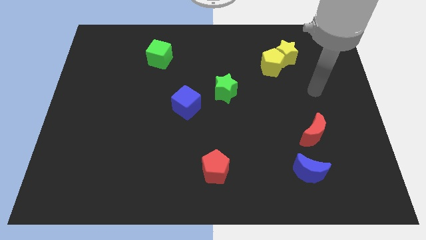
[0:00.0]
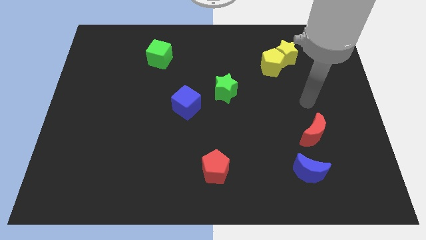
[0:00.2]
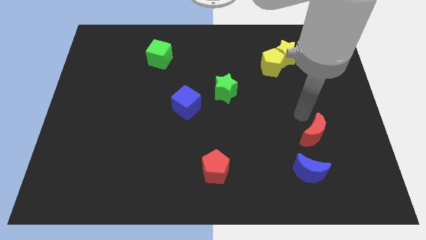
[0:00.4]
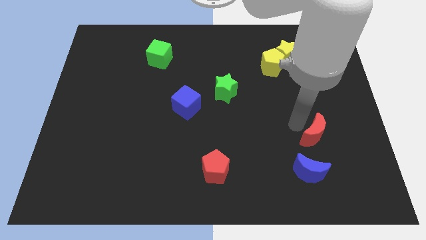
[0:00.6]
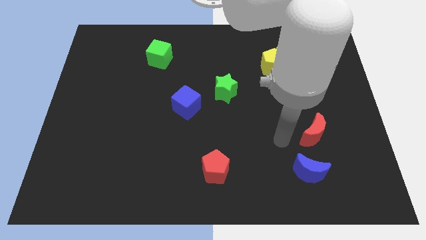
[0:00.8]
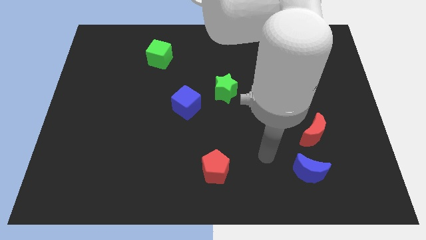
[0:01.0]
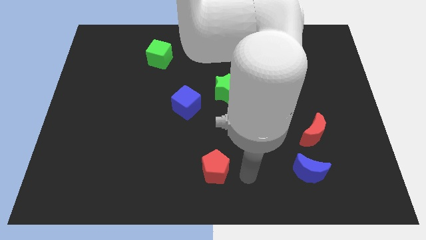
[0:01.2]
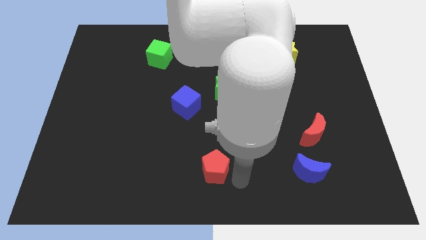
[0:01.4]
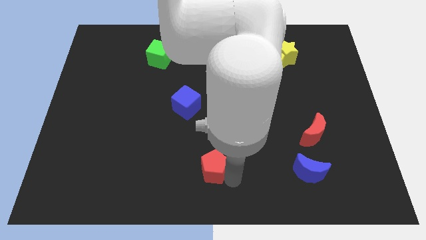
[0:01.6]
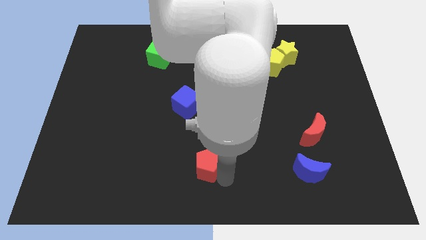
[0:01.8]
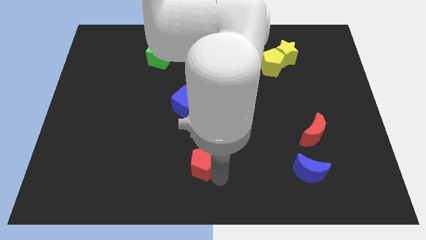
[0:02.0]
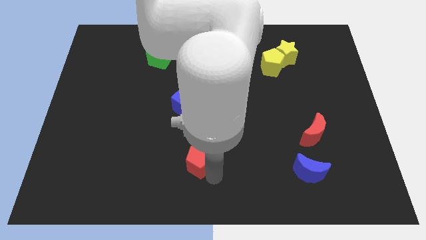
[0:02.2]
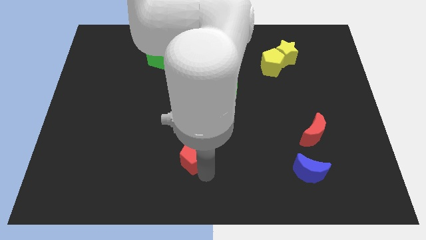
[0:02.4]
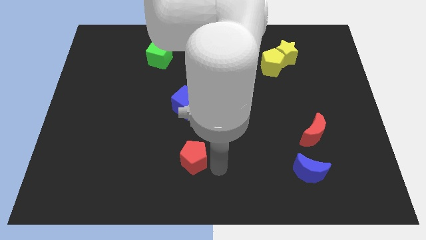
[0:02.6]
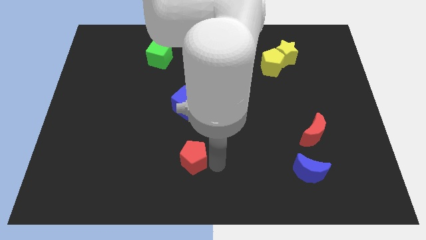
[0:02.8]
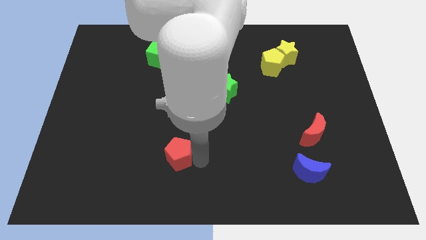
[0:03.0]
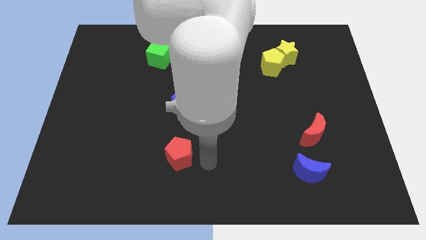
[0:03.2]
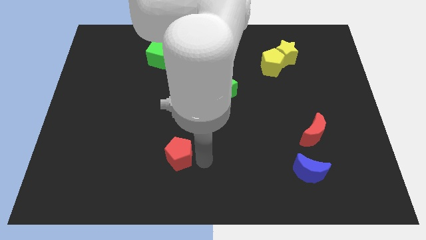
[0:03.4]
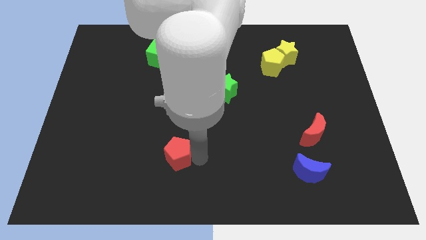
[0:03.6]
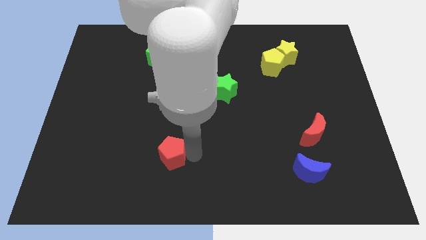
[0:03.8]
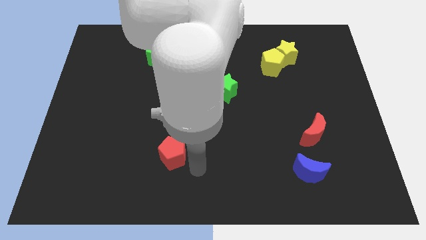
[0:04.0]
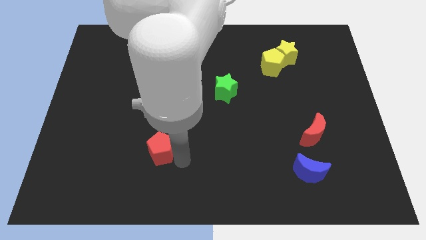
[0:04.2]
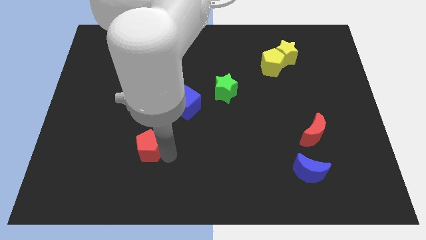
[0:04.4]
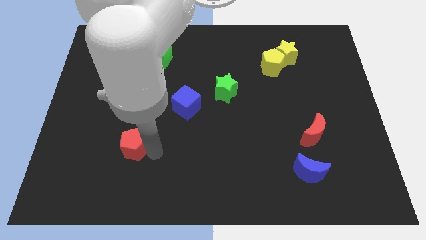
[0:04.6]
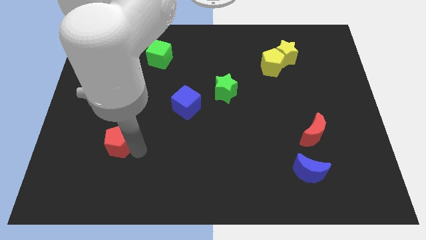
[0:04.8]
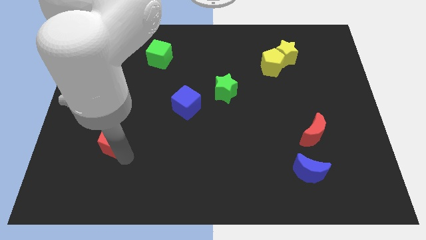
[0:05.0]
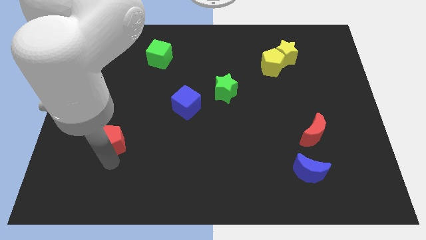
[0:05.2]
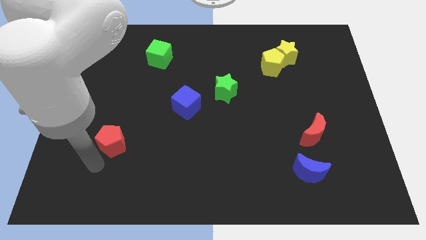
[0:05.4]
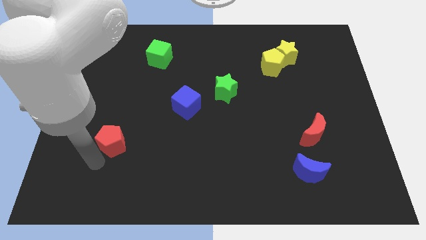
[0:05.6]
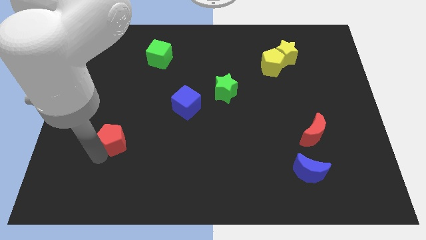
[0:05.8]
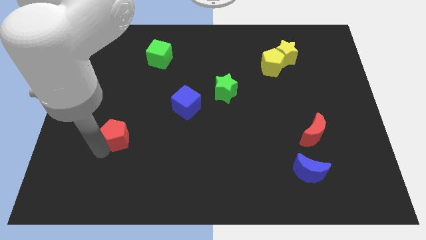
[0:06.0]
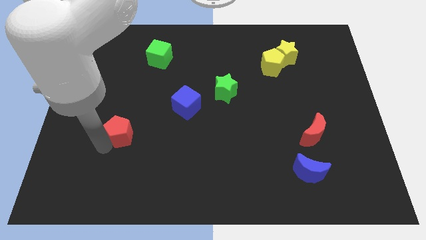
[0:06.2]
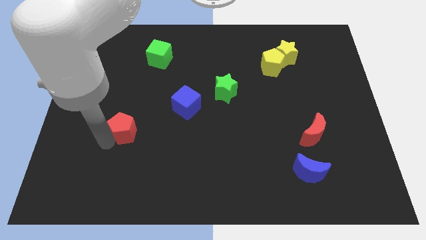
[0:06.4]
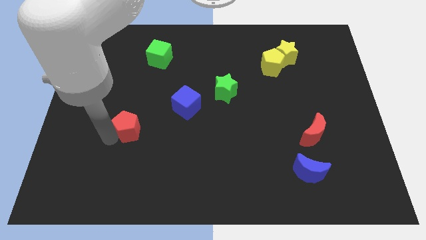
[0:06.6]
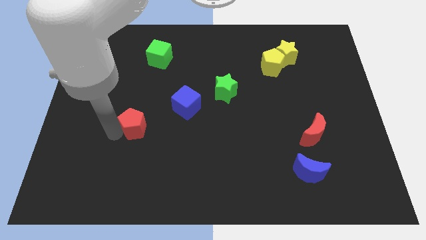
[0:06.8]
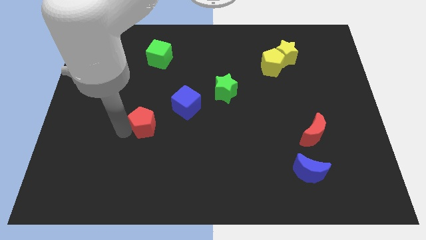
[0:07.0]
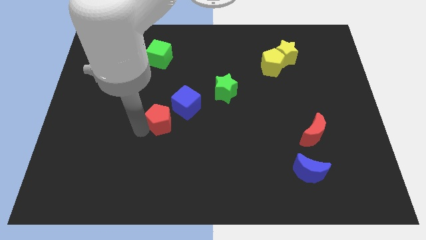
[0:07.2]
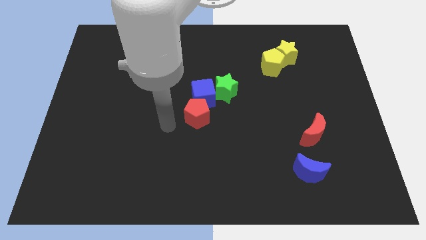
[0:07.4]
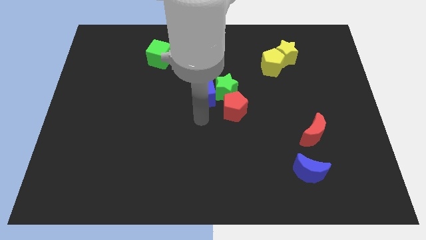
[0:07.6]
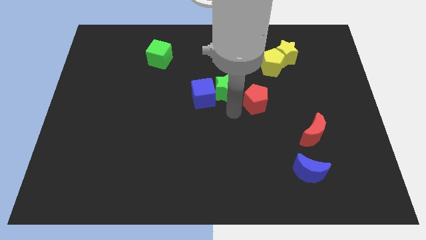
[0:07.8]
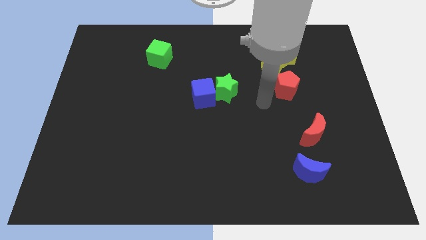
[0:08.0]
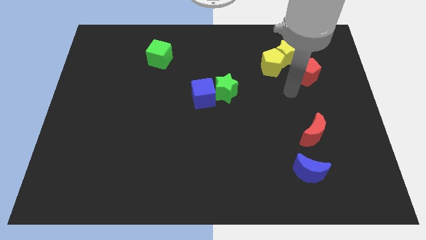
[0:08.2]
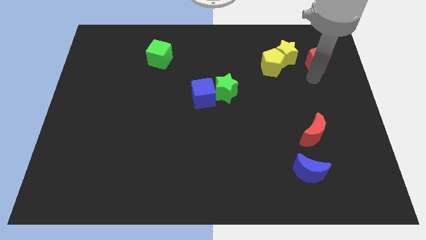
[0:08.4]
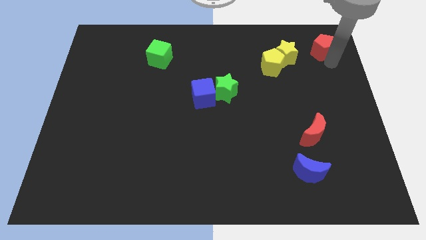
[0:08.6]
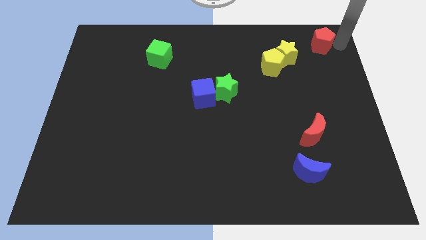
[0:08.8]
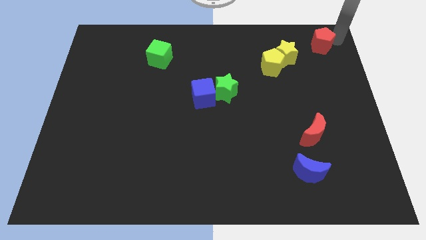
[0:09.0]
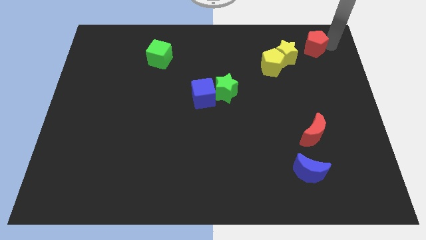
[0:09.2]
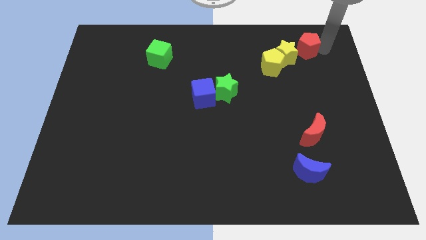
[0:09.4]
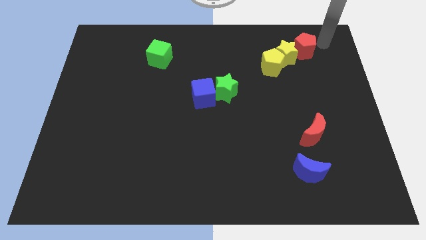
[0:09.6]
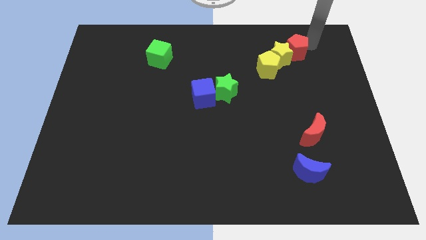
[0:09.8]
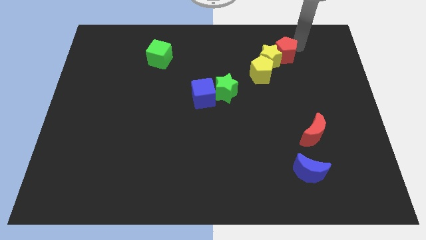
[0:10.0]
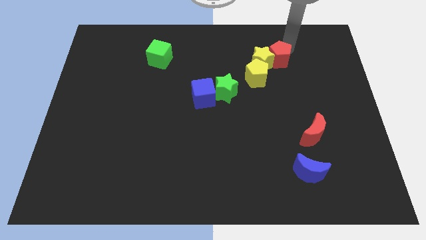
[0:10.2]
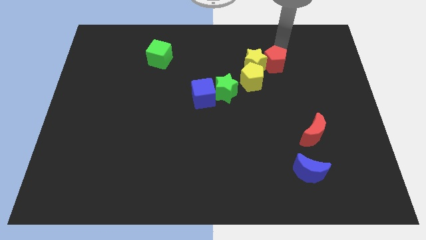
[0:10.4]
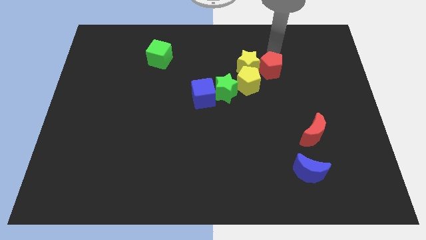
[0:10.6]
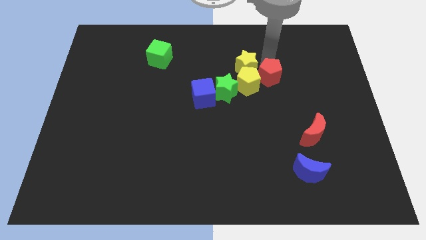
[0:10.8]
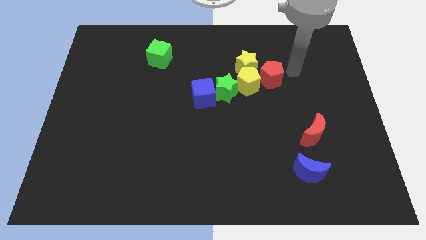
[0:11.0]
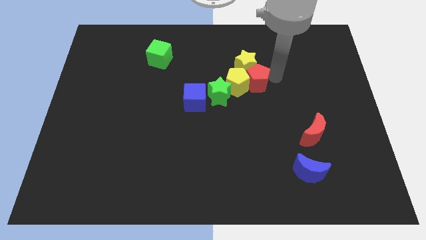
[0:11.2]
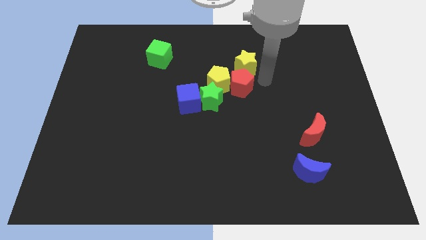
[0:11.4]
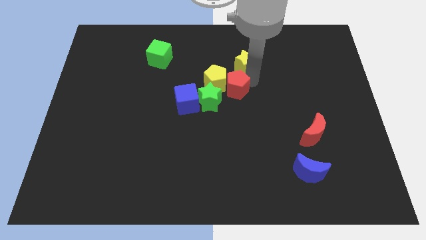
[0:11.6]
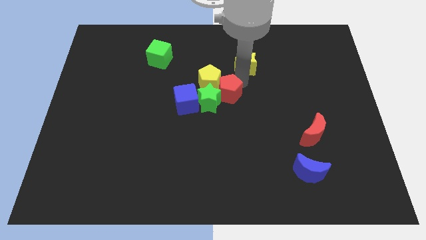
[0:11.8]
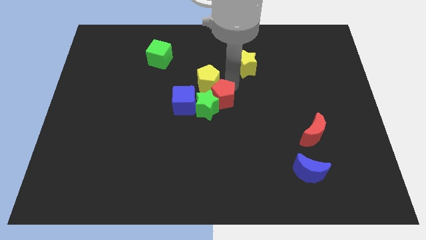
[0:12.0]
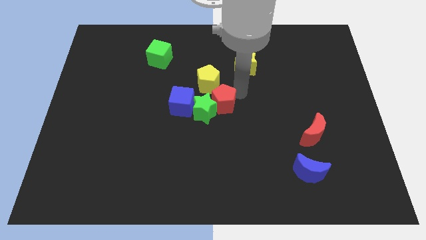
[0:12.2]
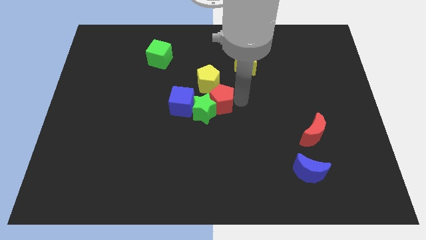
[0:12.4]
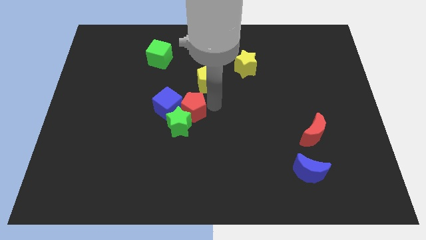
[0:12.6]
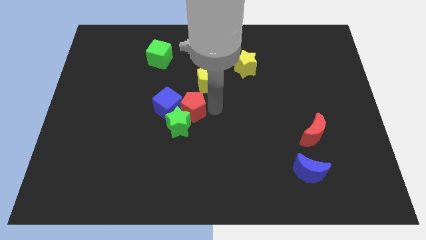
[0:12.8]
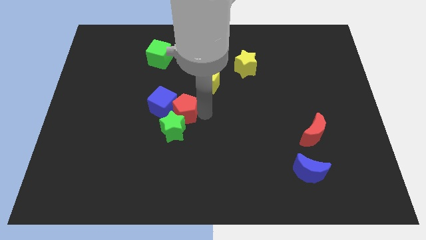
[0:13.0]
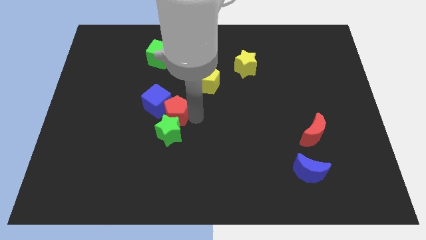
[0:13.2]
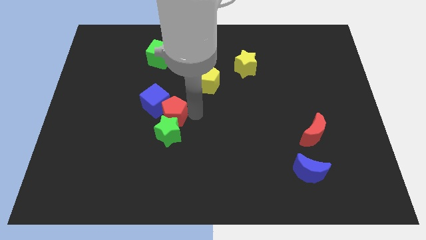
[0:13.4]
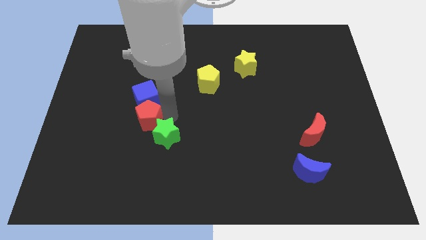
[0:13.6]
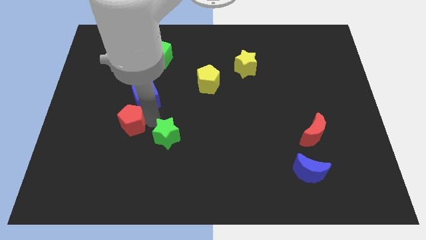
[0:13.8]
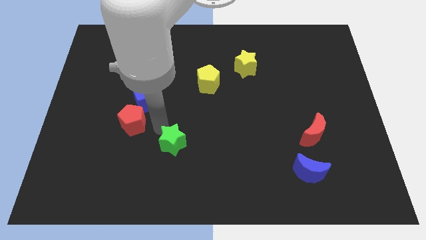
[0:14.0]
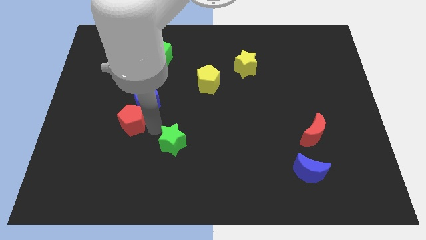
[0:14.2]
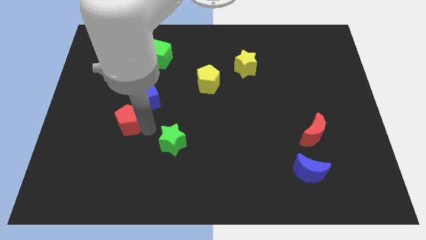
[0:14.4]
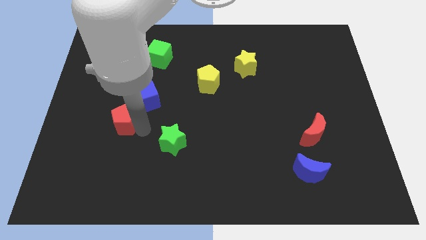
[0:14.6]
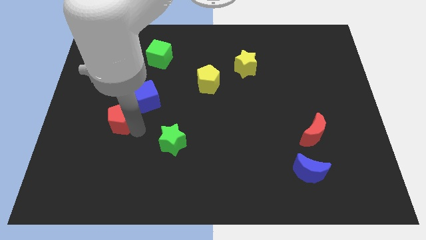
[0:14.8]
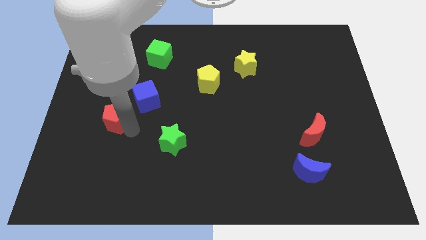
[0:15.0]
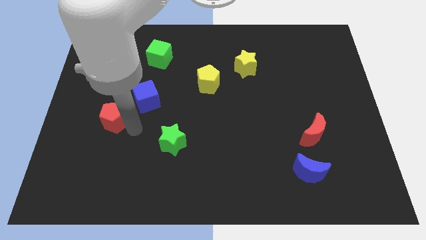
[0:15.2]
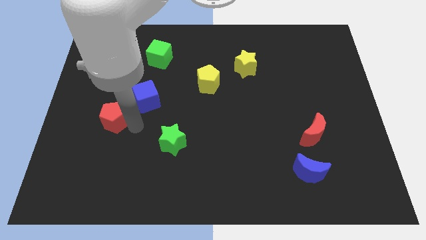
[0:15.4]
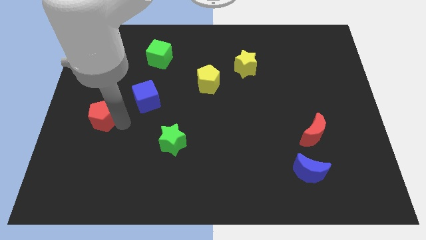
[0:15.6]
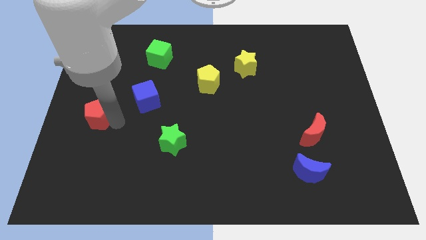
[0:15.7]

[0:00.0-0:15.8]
push the red pentagon to the left side
